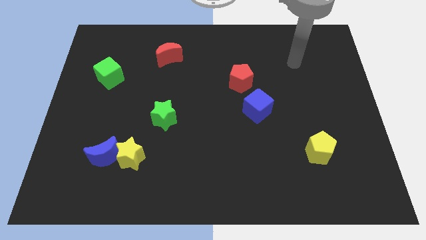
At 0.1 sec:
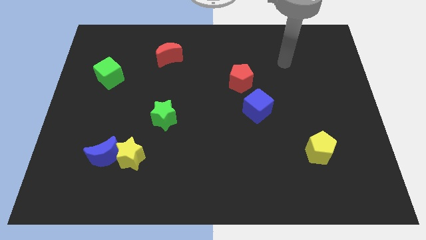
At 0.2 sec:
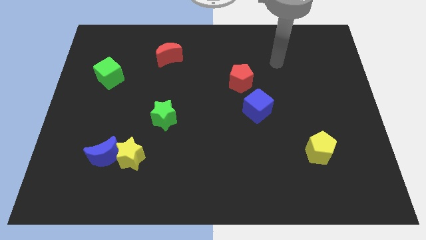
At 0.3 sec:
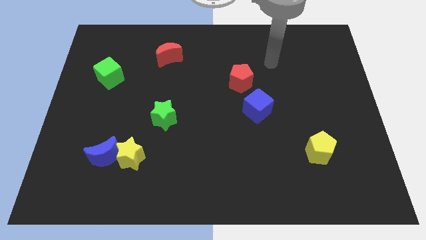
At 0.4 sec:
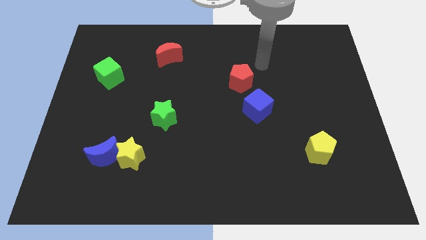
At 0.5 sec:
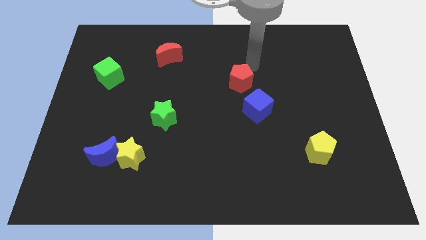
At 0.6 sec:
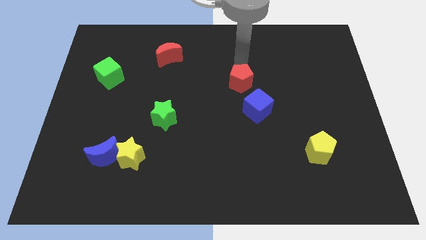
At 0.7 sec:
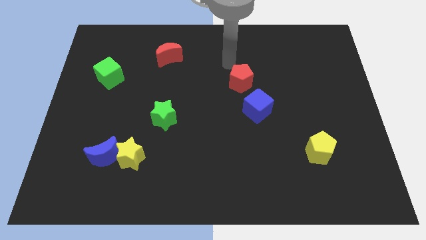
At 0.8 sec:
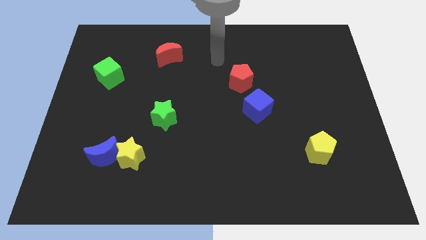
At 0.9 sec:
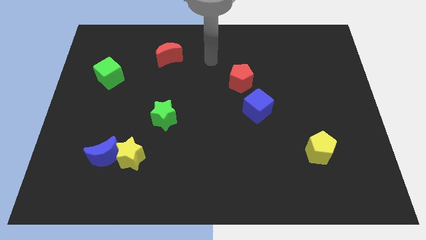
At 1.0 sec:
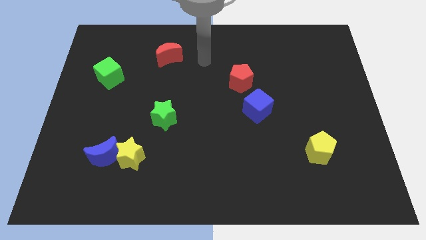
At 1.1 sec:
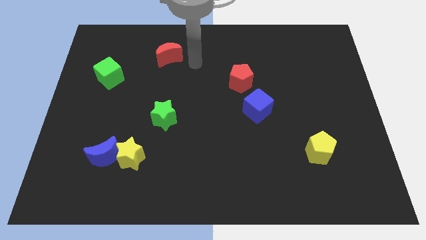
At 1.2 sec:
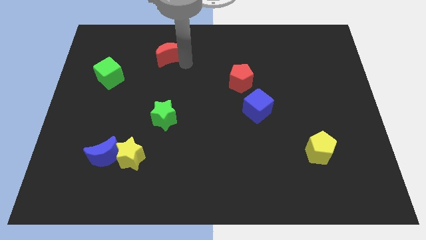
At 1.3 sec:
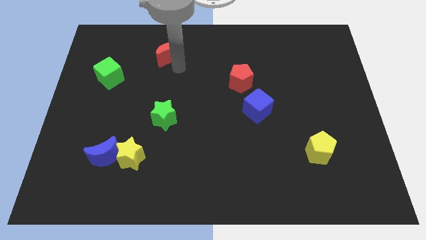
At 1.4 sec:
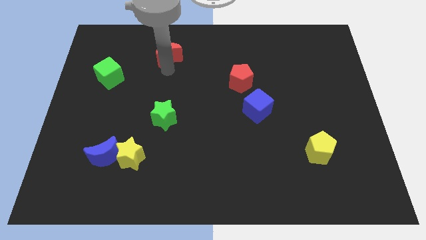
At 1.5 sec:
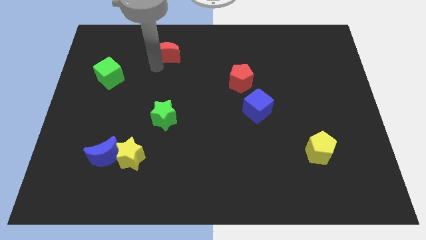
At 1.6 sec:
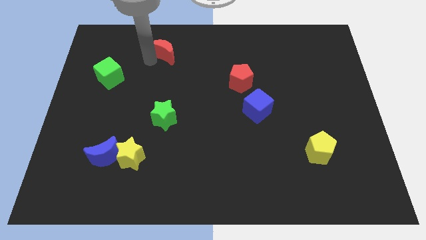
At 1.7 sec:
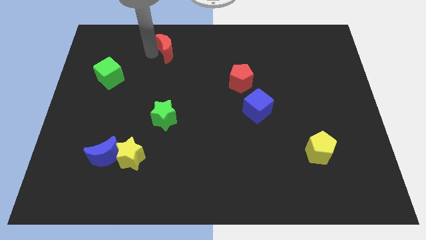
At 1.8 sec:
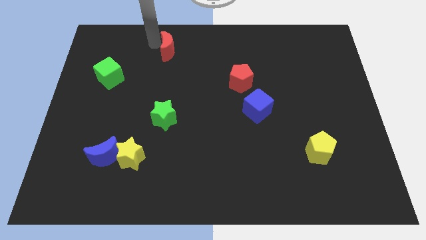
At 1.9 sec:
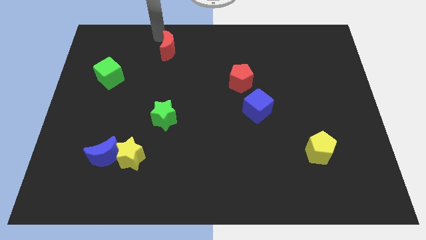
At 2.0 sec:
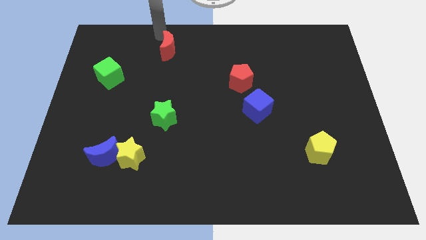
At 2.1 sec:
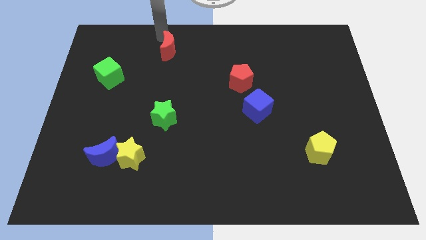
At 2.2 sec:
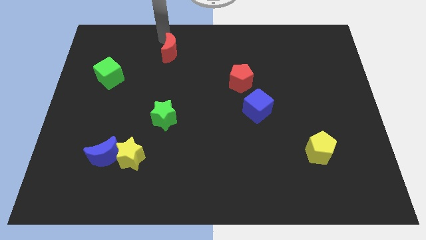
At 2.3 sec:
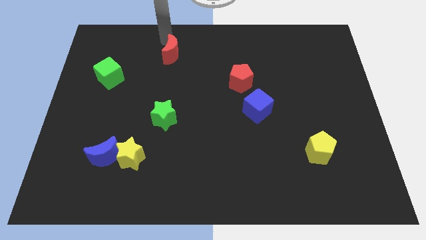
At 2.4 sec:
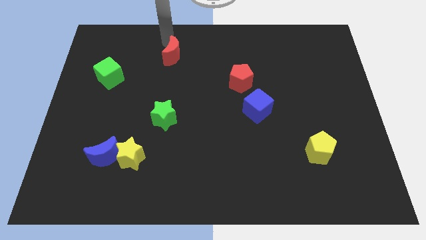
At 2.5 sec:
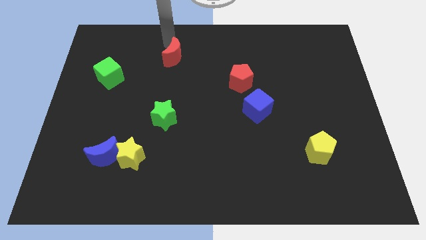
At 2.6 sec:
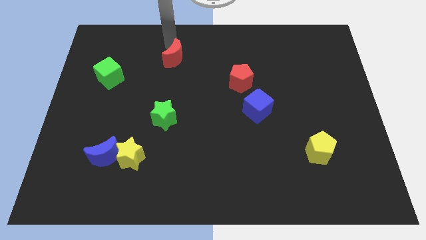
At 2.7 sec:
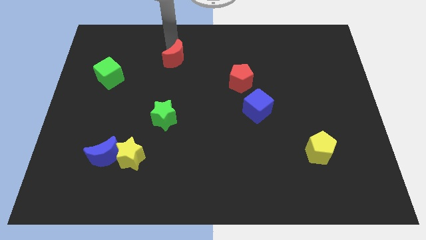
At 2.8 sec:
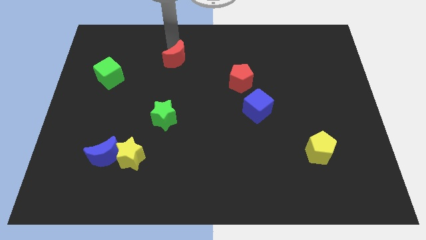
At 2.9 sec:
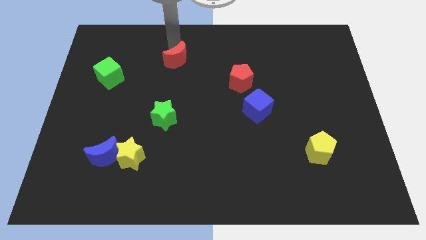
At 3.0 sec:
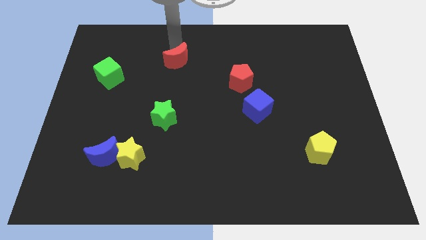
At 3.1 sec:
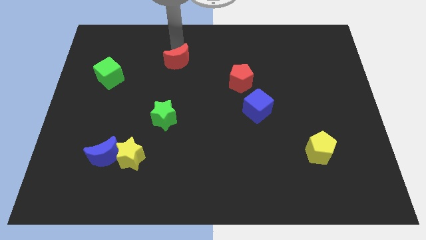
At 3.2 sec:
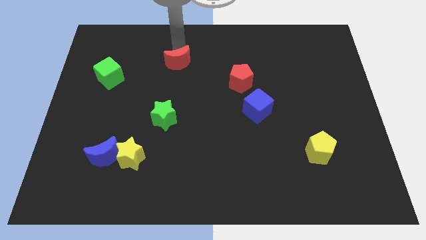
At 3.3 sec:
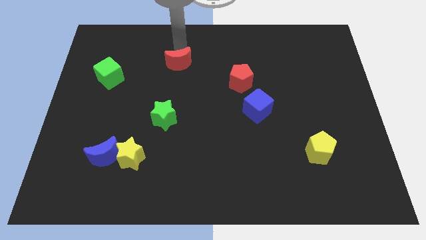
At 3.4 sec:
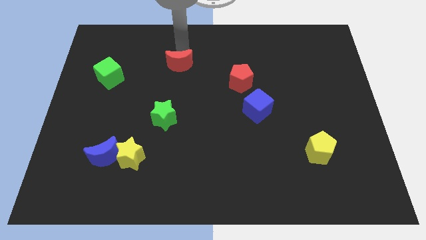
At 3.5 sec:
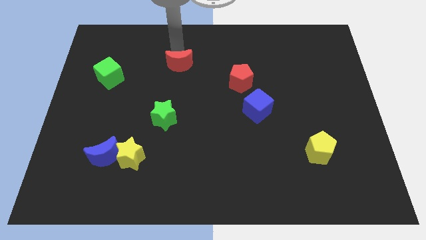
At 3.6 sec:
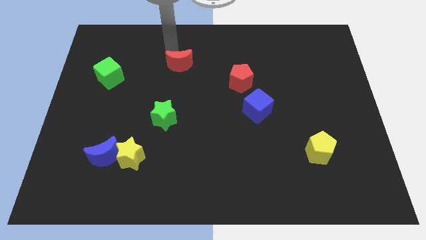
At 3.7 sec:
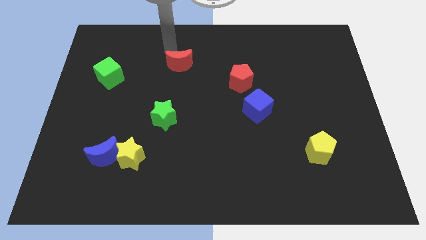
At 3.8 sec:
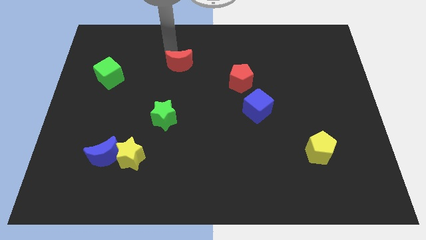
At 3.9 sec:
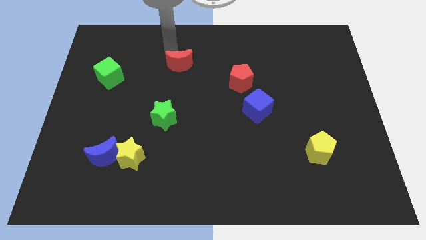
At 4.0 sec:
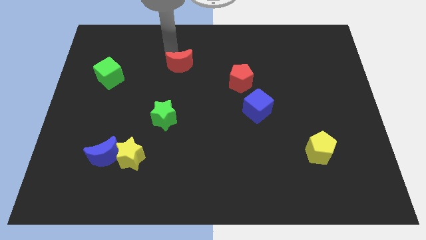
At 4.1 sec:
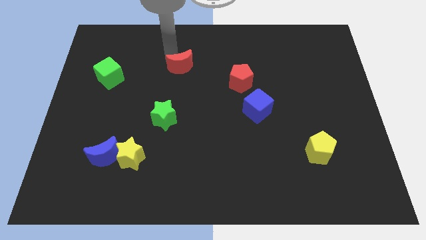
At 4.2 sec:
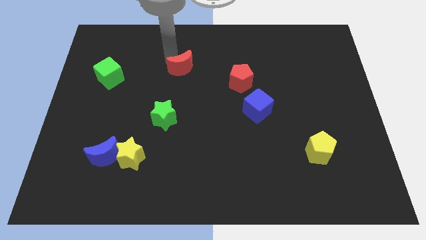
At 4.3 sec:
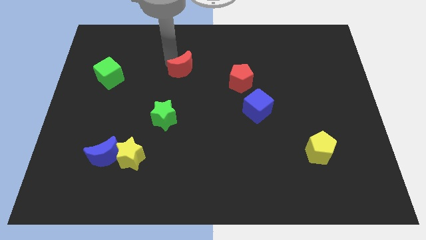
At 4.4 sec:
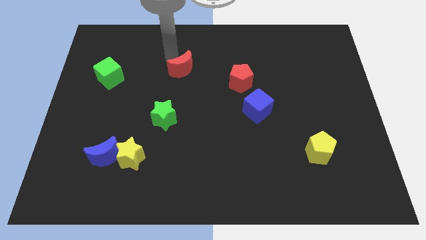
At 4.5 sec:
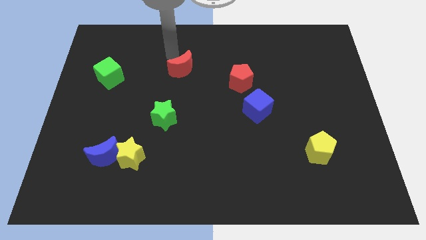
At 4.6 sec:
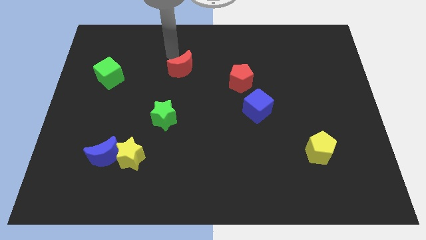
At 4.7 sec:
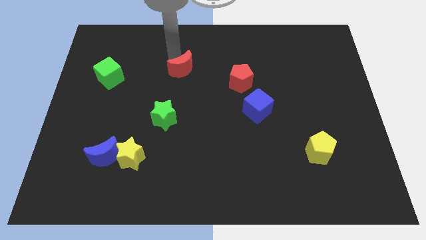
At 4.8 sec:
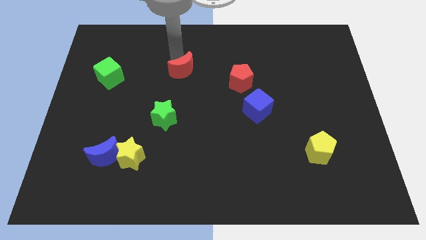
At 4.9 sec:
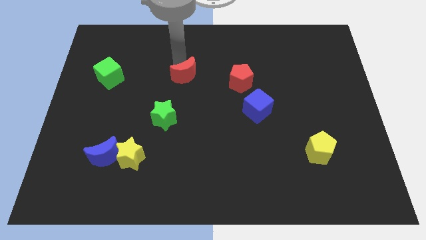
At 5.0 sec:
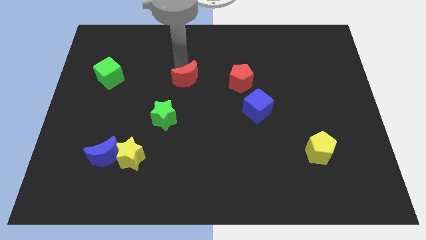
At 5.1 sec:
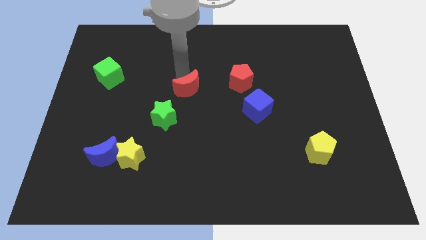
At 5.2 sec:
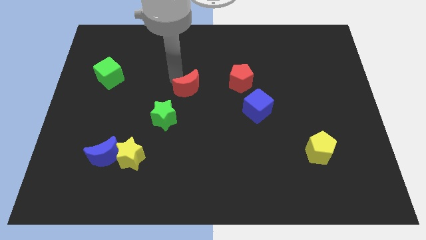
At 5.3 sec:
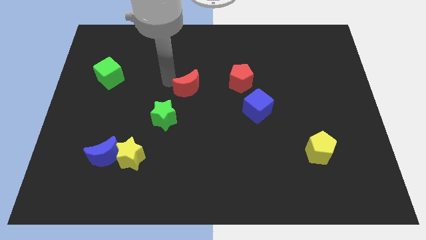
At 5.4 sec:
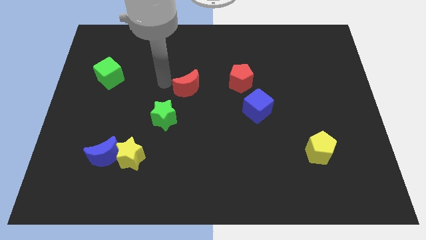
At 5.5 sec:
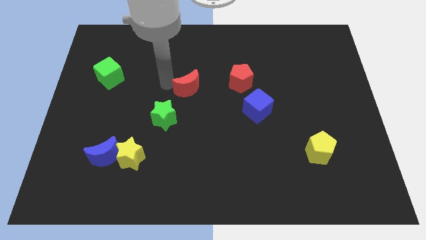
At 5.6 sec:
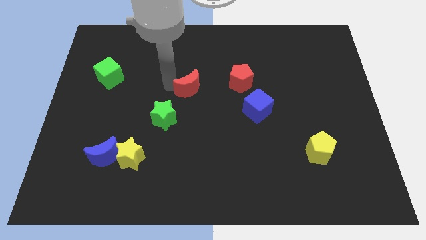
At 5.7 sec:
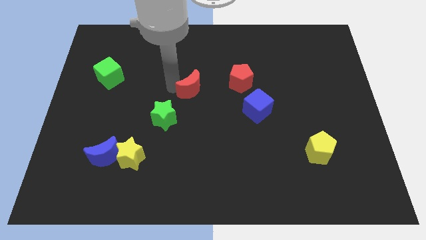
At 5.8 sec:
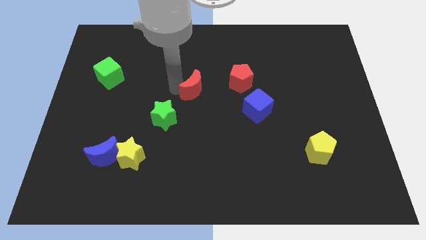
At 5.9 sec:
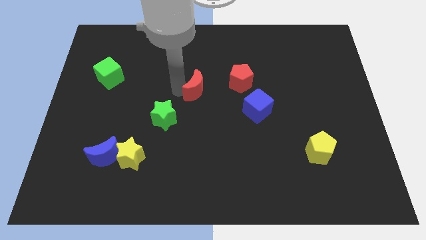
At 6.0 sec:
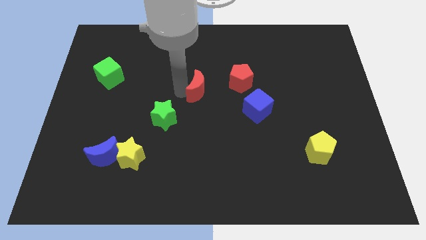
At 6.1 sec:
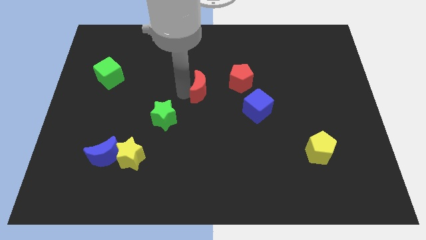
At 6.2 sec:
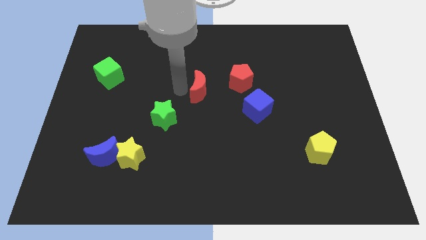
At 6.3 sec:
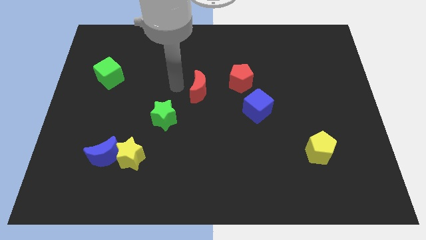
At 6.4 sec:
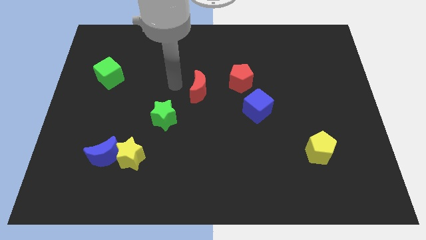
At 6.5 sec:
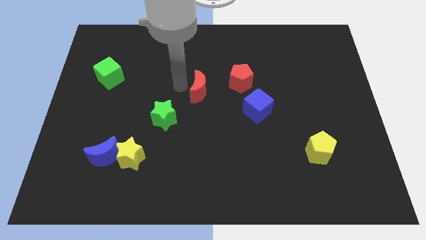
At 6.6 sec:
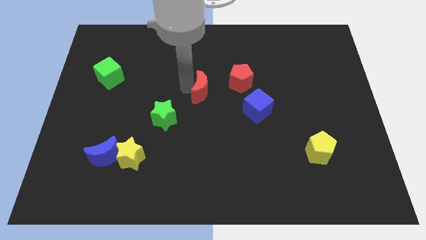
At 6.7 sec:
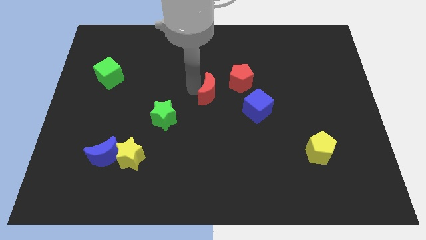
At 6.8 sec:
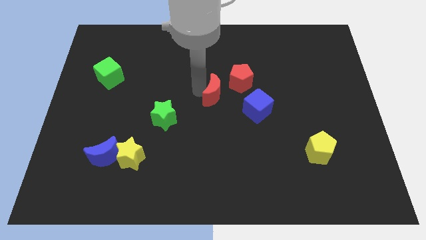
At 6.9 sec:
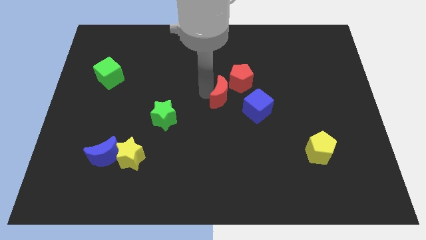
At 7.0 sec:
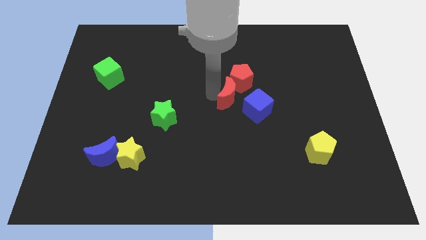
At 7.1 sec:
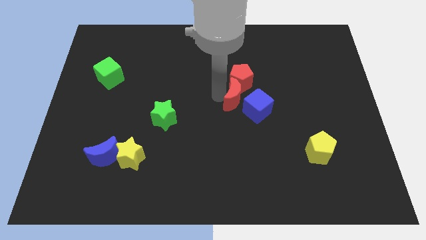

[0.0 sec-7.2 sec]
push the red moon next to the blue cube

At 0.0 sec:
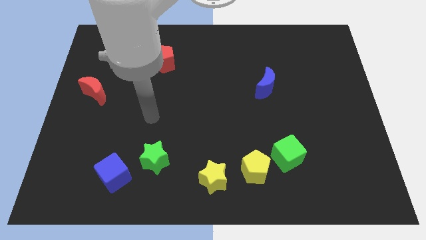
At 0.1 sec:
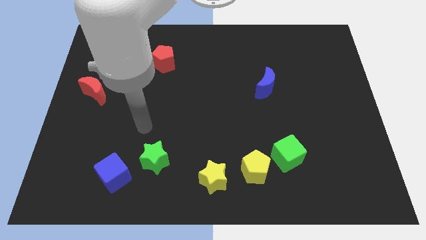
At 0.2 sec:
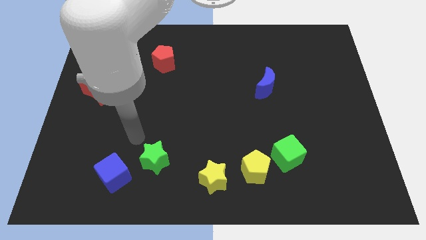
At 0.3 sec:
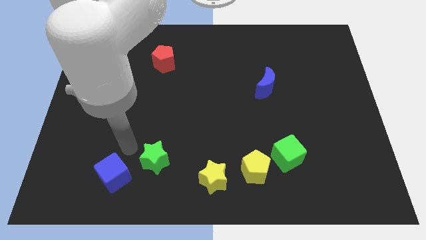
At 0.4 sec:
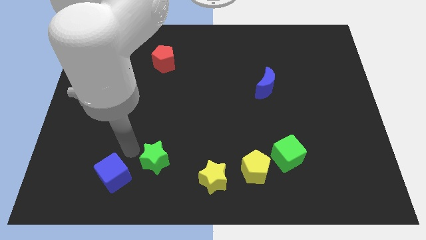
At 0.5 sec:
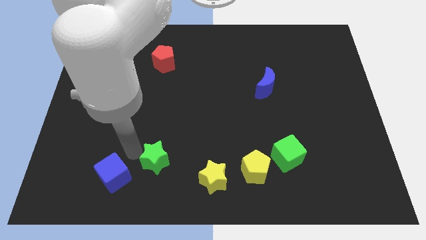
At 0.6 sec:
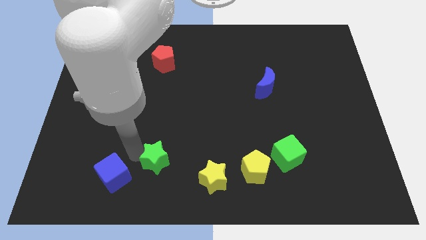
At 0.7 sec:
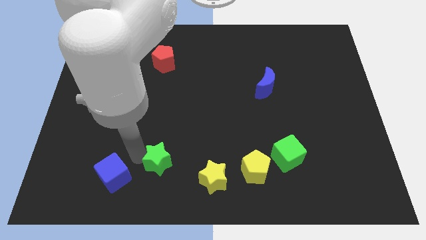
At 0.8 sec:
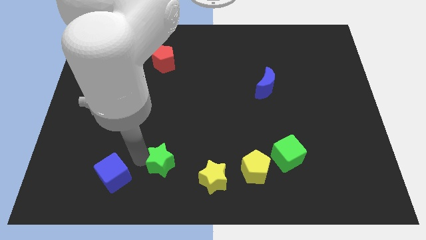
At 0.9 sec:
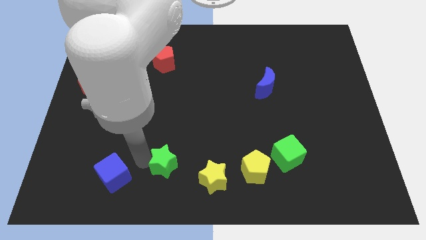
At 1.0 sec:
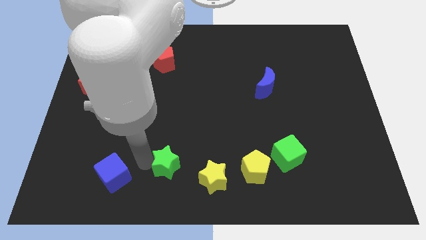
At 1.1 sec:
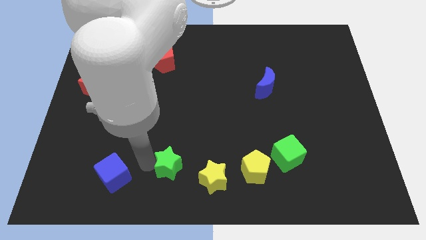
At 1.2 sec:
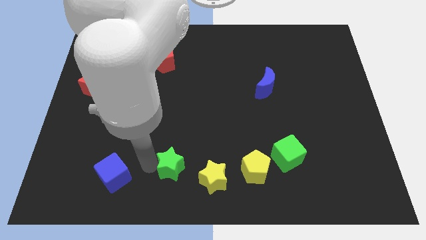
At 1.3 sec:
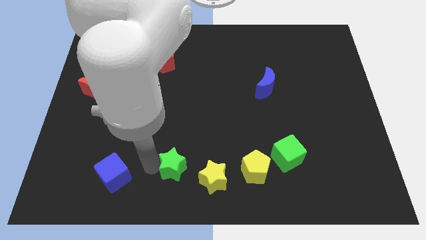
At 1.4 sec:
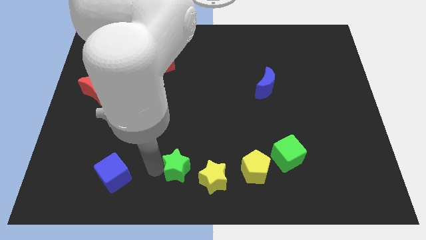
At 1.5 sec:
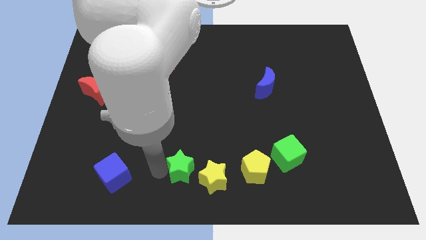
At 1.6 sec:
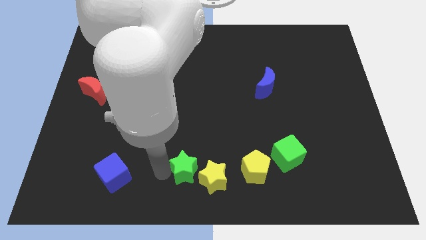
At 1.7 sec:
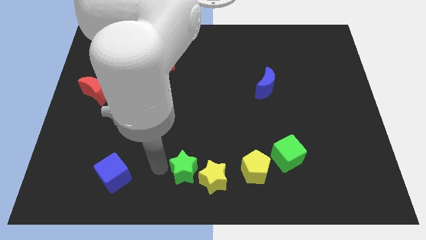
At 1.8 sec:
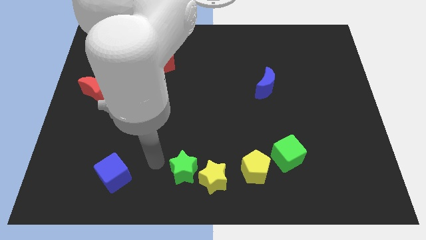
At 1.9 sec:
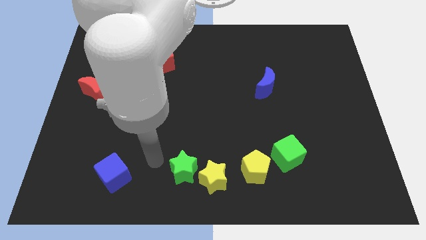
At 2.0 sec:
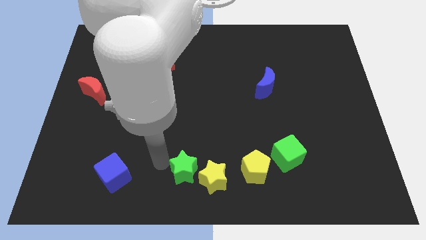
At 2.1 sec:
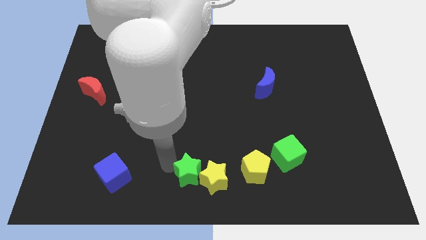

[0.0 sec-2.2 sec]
move the green star next to the yellow star
